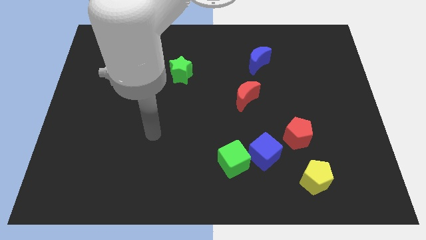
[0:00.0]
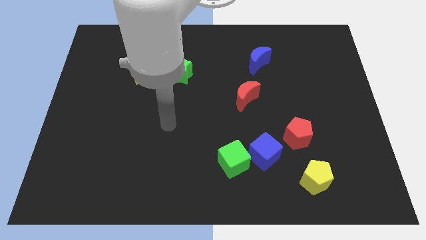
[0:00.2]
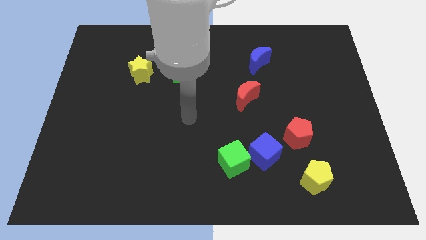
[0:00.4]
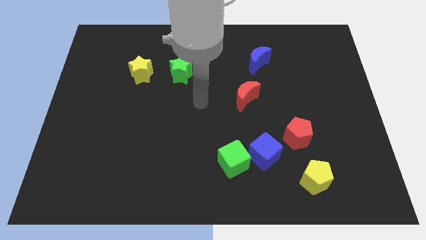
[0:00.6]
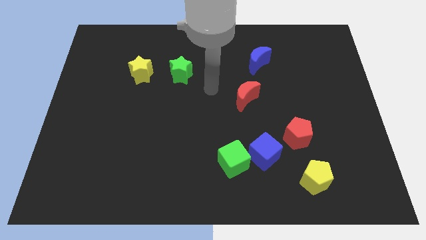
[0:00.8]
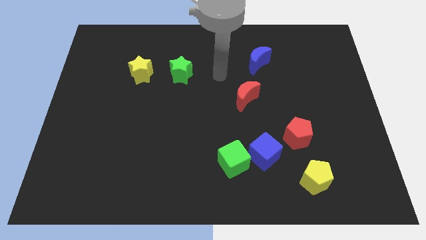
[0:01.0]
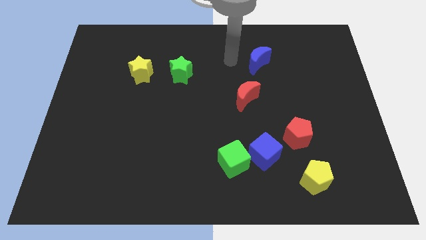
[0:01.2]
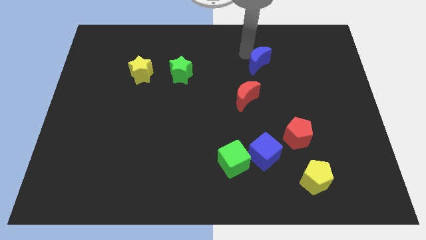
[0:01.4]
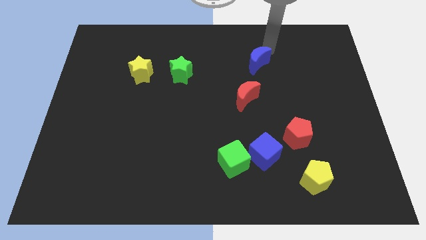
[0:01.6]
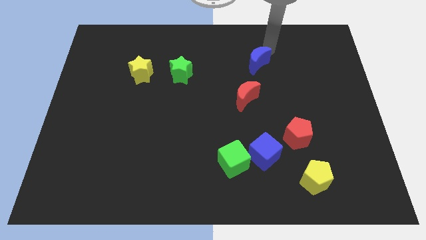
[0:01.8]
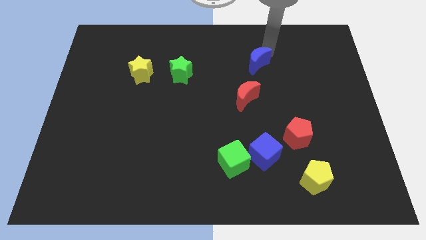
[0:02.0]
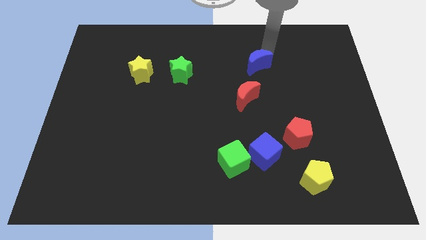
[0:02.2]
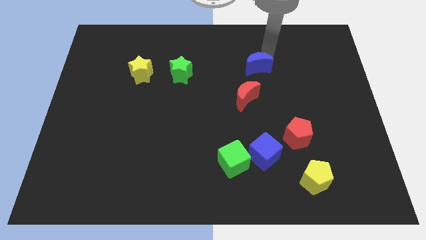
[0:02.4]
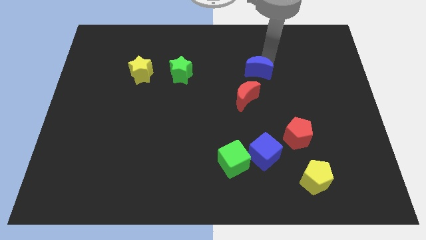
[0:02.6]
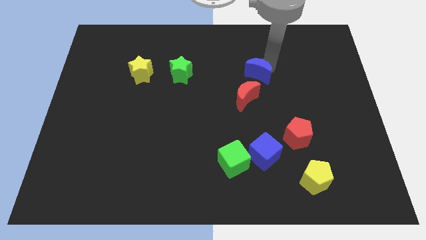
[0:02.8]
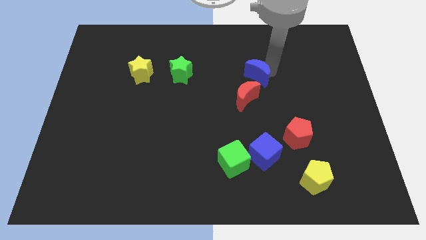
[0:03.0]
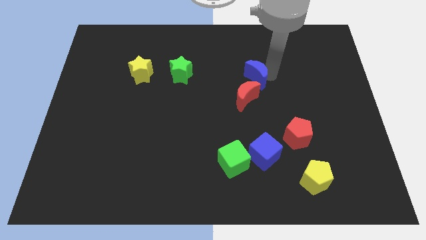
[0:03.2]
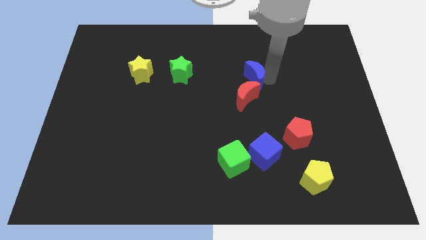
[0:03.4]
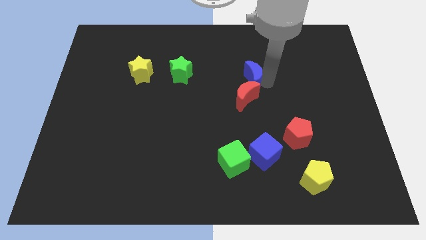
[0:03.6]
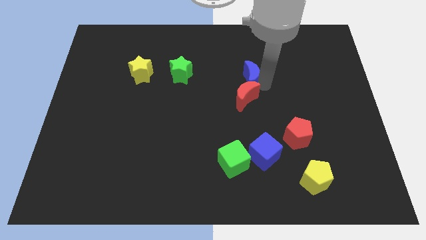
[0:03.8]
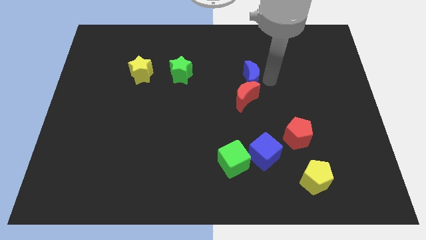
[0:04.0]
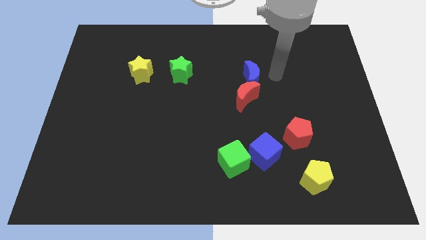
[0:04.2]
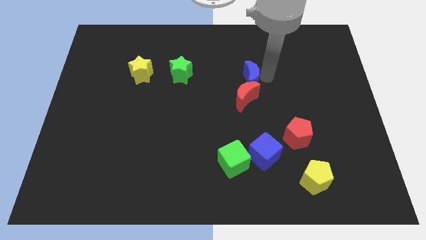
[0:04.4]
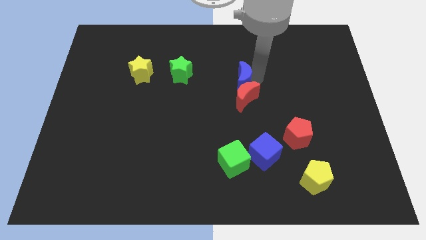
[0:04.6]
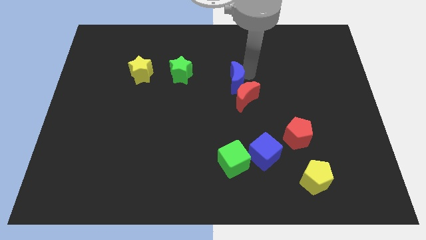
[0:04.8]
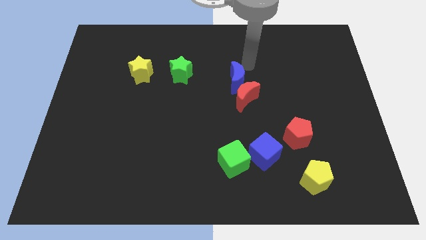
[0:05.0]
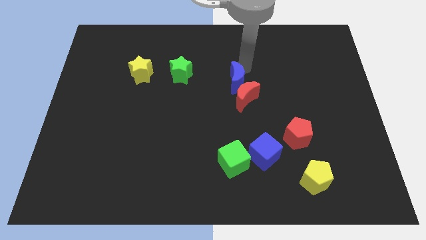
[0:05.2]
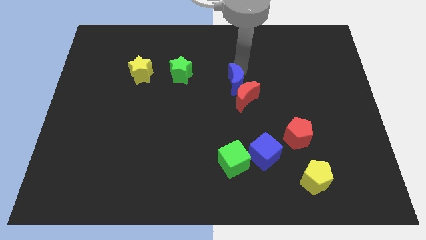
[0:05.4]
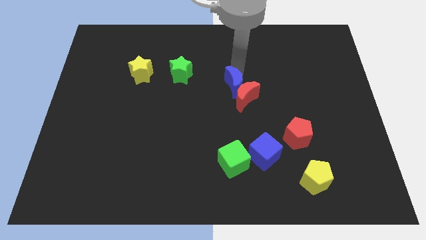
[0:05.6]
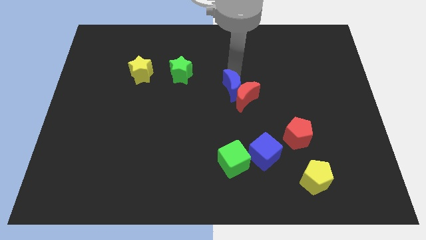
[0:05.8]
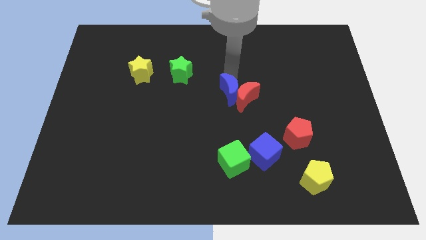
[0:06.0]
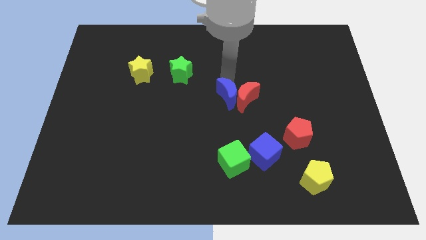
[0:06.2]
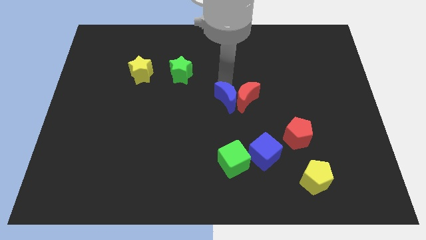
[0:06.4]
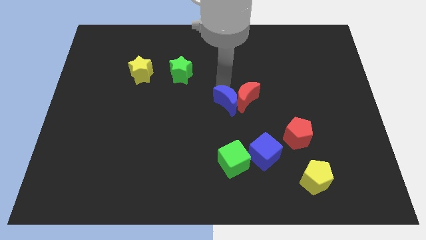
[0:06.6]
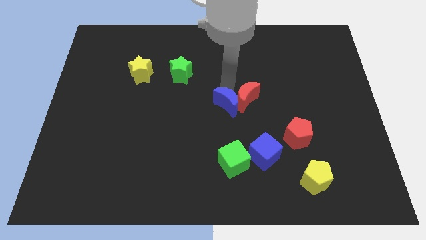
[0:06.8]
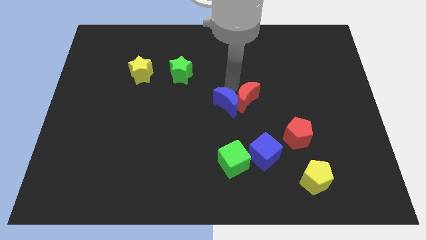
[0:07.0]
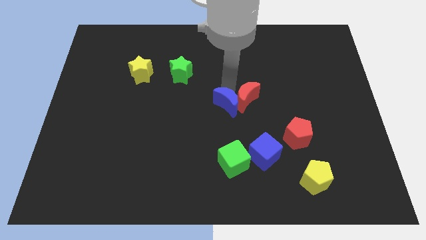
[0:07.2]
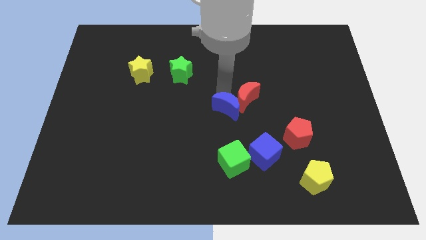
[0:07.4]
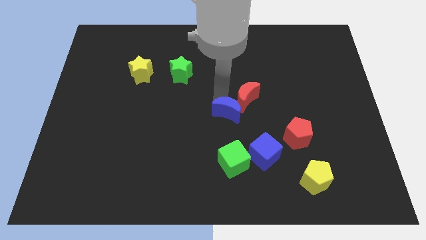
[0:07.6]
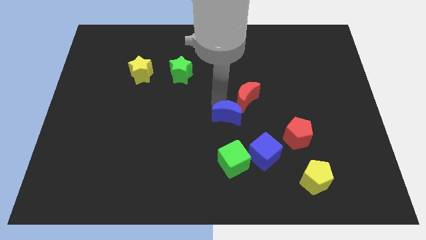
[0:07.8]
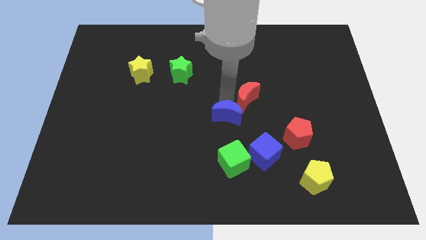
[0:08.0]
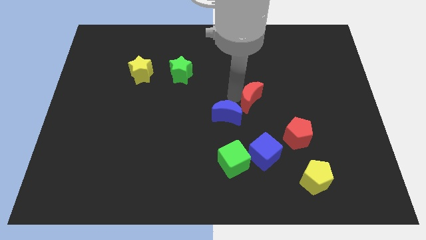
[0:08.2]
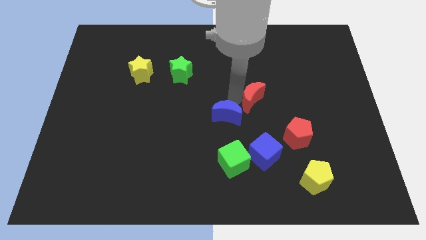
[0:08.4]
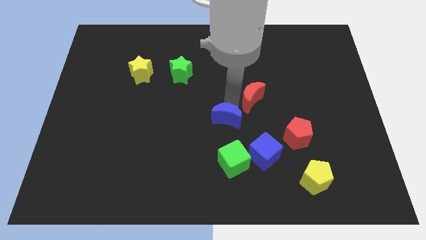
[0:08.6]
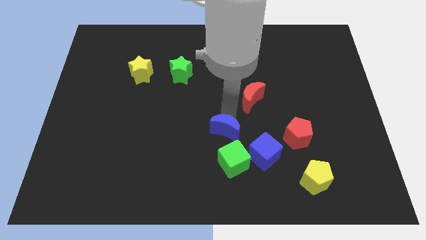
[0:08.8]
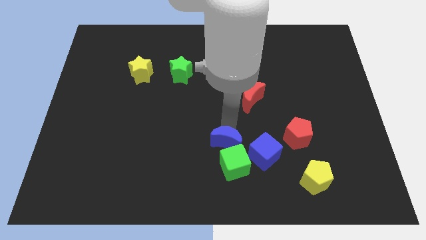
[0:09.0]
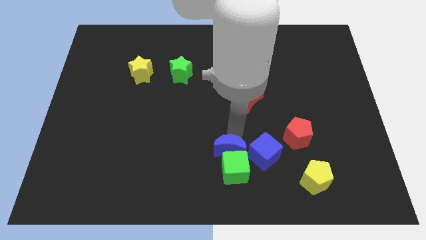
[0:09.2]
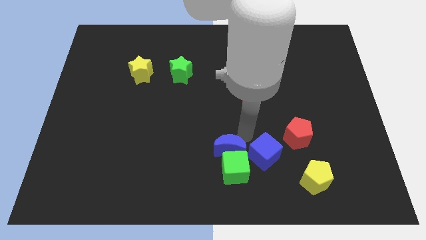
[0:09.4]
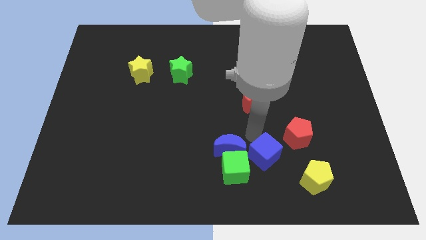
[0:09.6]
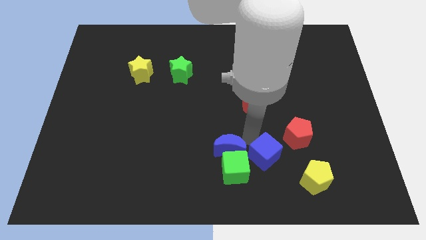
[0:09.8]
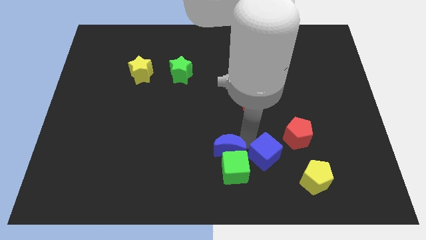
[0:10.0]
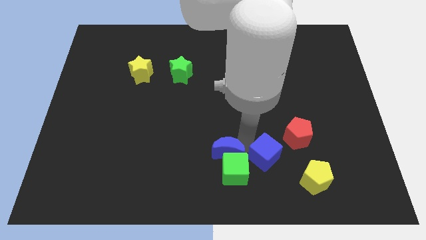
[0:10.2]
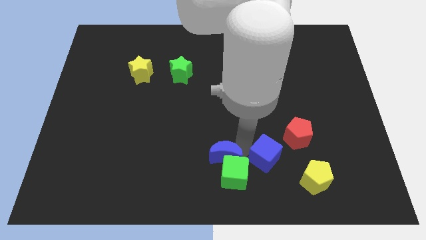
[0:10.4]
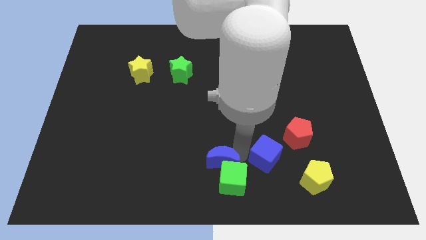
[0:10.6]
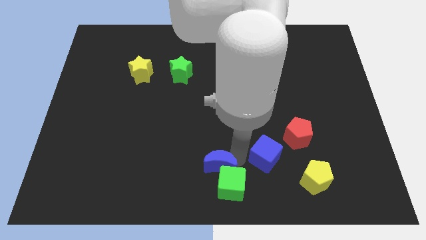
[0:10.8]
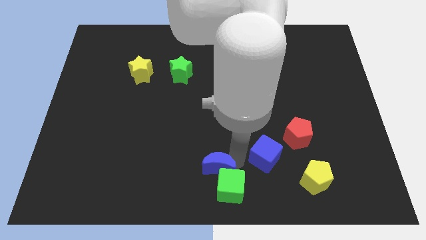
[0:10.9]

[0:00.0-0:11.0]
push the blue moon to the bottom left of the blue cube

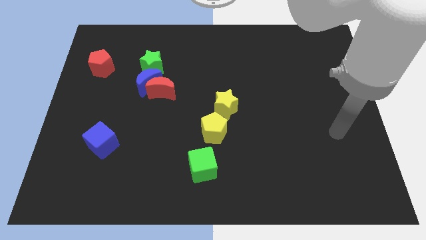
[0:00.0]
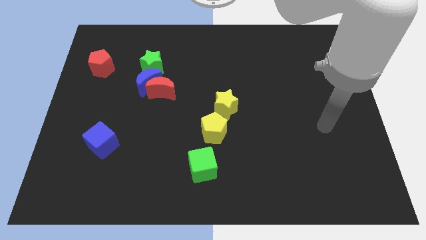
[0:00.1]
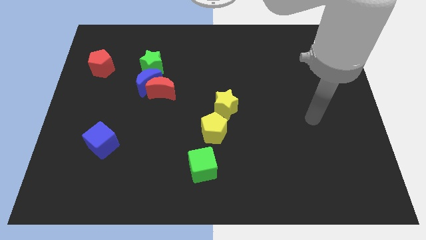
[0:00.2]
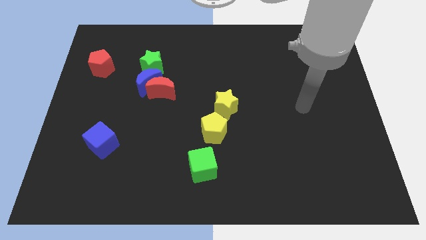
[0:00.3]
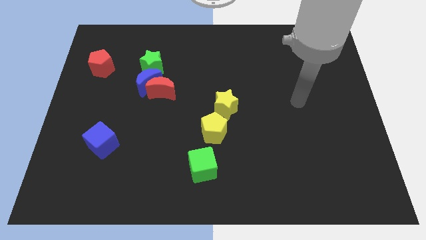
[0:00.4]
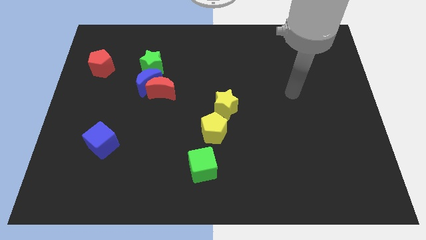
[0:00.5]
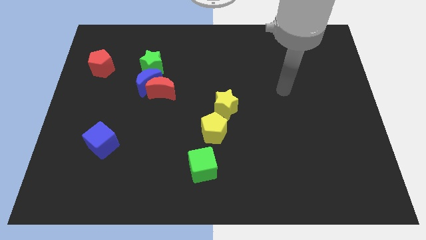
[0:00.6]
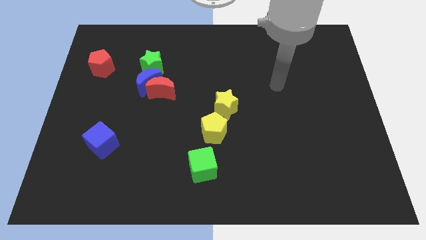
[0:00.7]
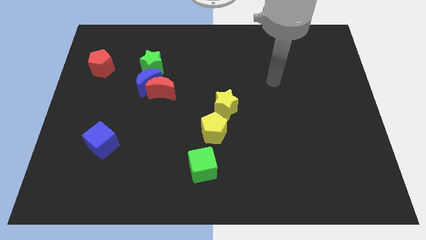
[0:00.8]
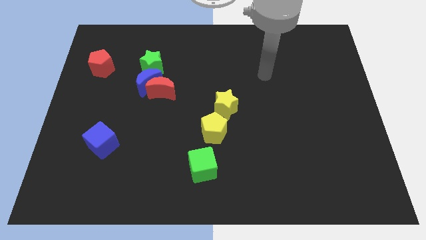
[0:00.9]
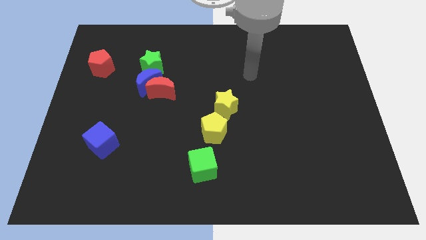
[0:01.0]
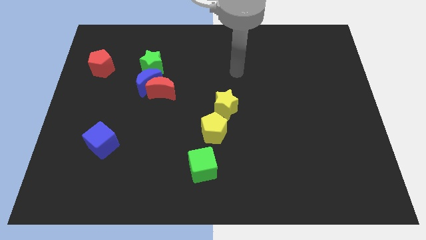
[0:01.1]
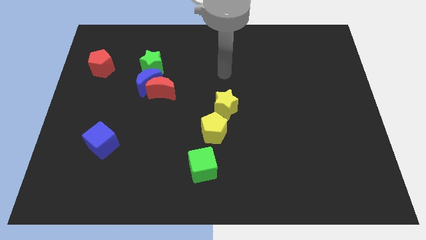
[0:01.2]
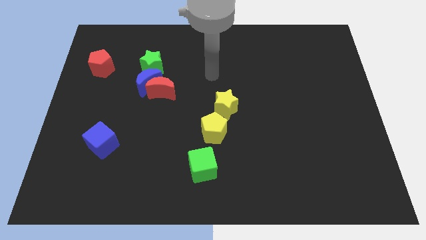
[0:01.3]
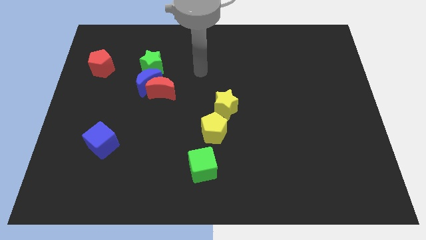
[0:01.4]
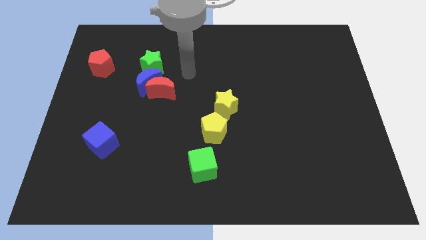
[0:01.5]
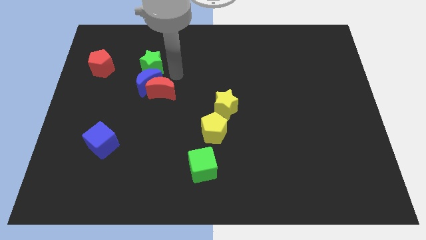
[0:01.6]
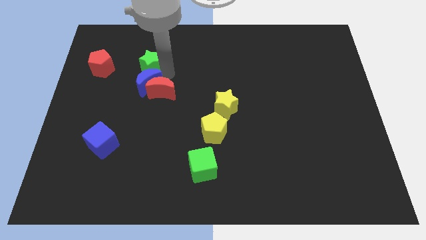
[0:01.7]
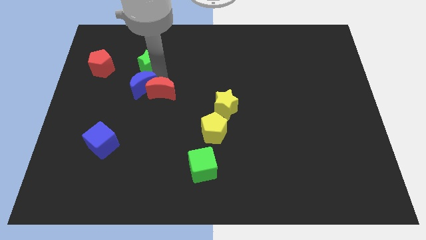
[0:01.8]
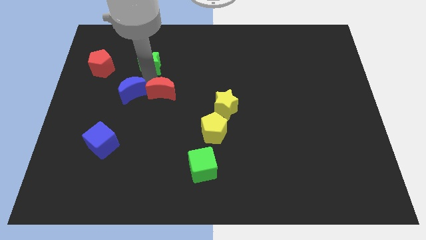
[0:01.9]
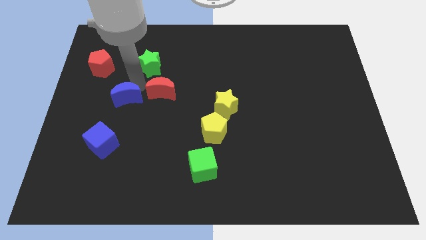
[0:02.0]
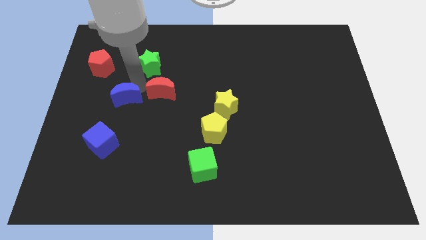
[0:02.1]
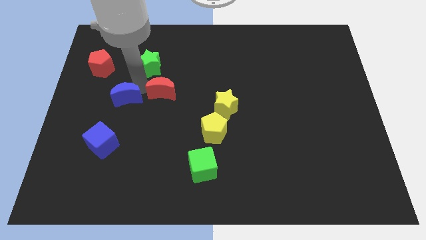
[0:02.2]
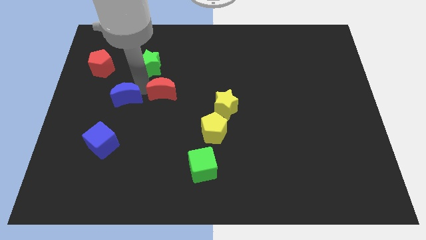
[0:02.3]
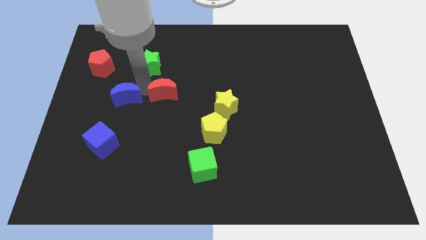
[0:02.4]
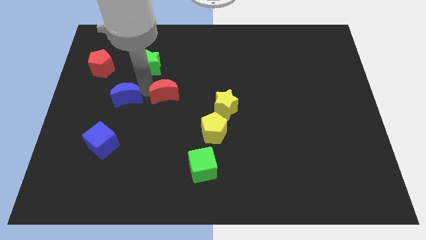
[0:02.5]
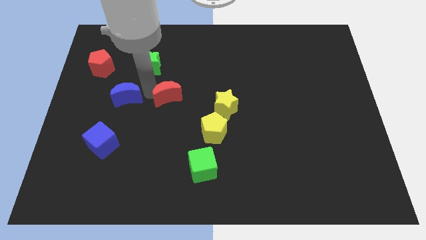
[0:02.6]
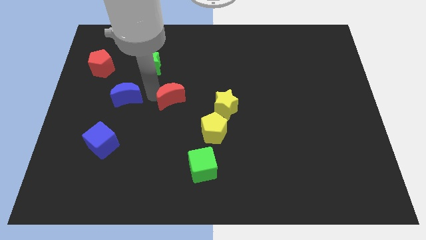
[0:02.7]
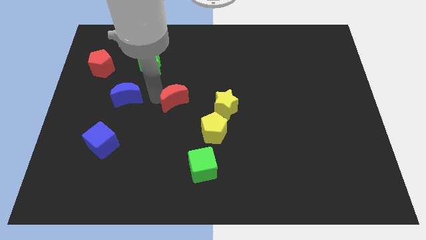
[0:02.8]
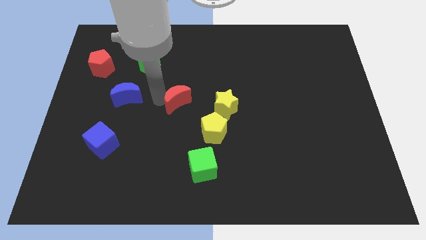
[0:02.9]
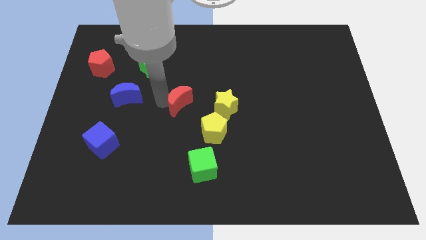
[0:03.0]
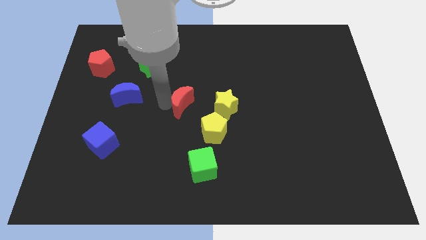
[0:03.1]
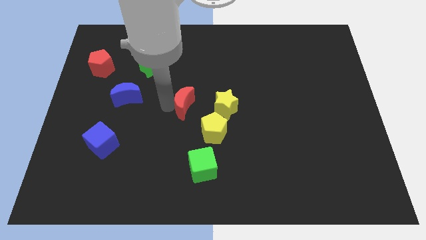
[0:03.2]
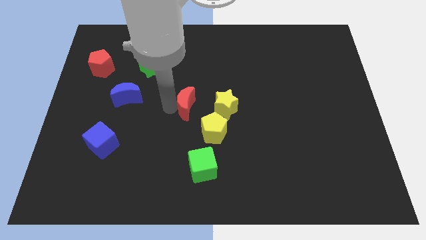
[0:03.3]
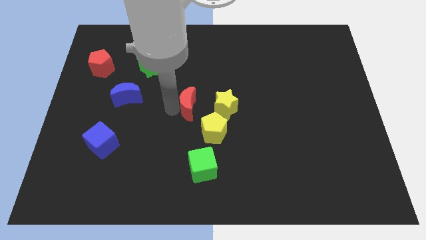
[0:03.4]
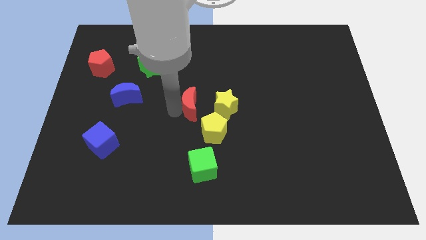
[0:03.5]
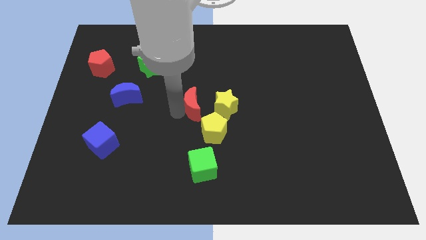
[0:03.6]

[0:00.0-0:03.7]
slide the red moon to the top side of the yellow pentagon
